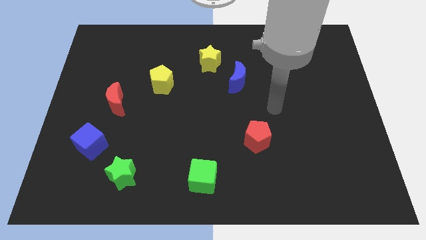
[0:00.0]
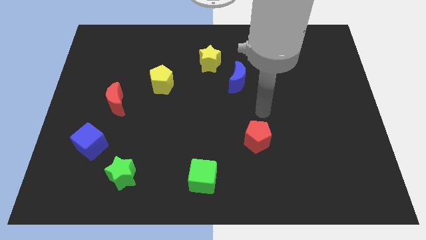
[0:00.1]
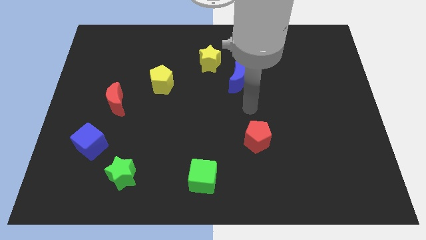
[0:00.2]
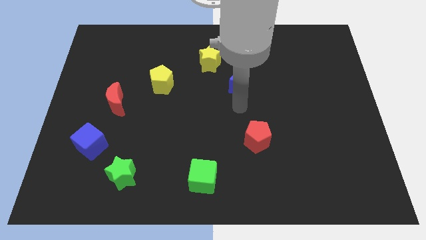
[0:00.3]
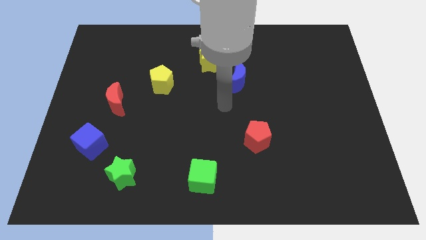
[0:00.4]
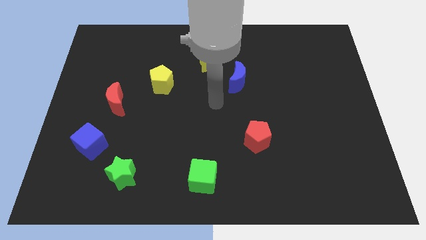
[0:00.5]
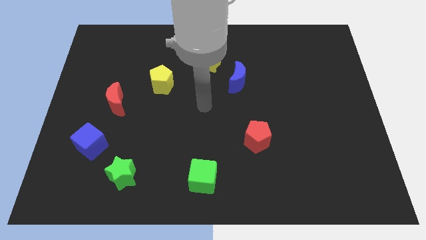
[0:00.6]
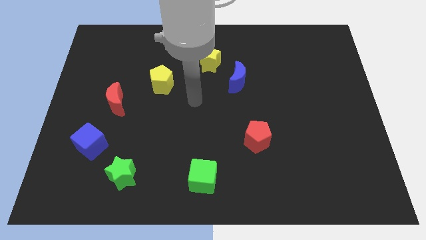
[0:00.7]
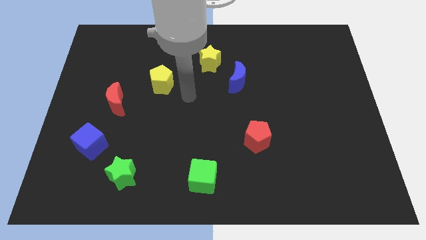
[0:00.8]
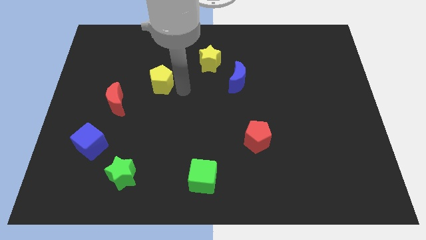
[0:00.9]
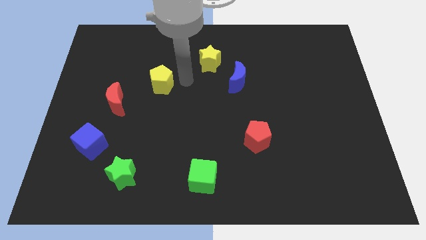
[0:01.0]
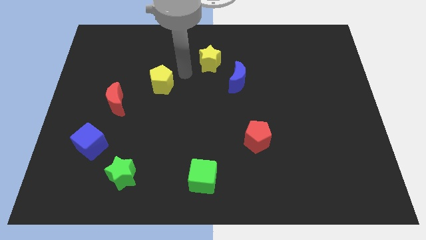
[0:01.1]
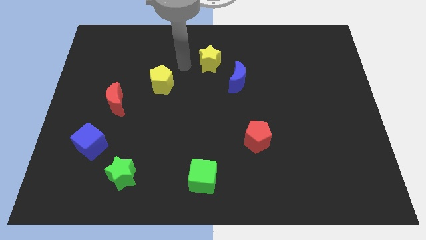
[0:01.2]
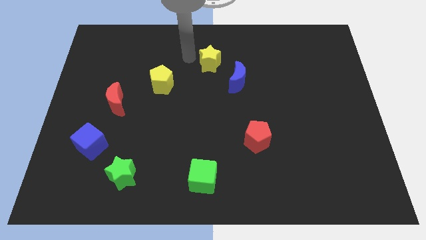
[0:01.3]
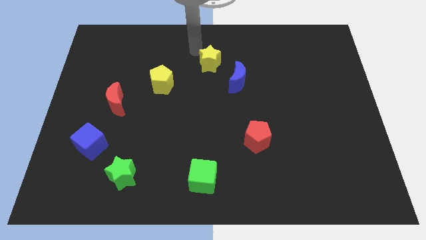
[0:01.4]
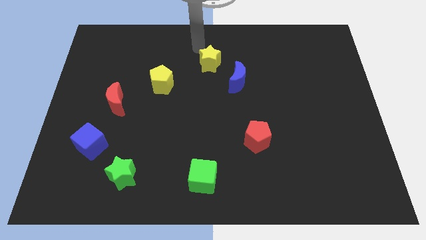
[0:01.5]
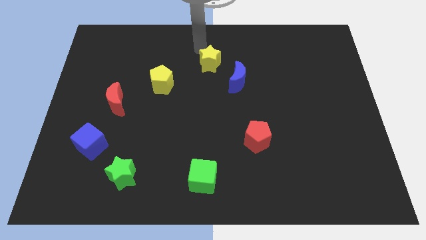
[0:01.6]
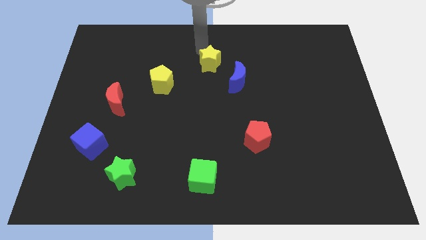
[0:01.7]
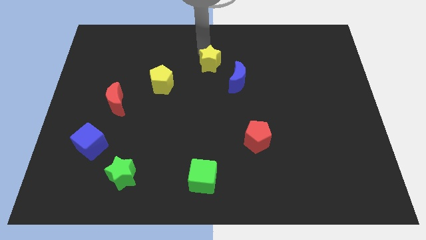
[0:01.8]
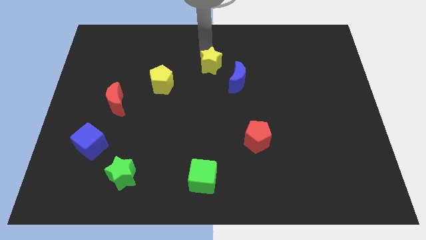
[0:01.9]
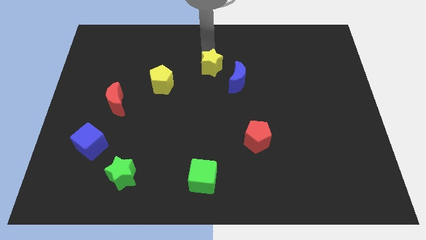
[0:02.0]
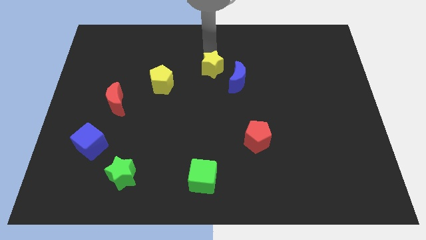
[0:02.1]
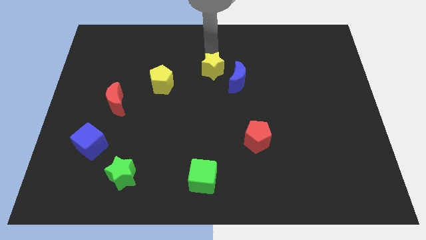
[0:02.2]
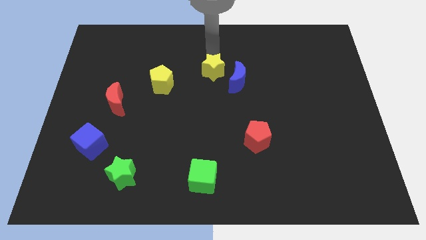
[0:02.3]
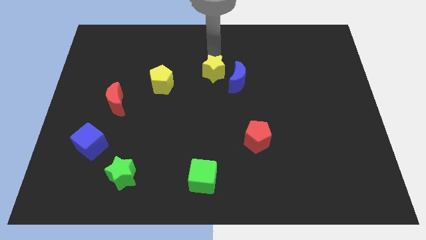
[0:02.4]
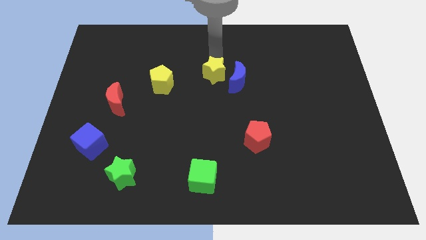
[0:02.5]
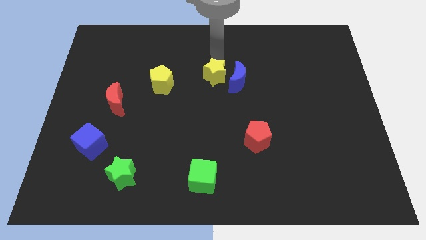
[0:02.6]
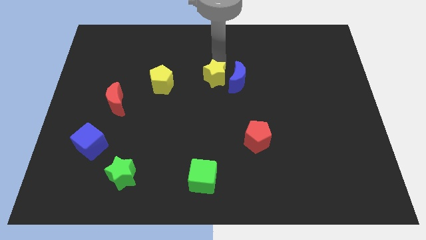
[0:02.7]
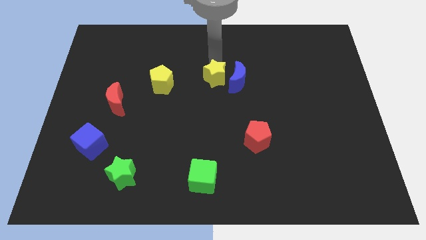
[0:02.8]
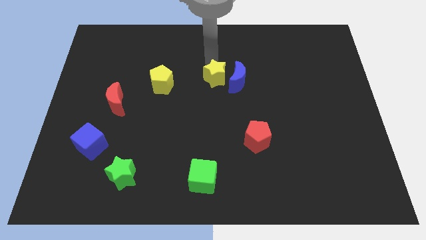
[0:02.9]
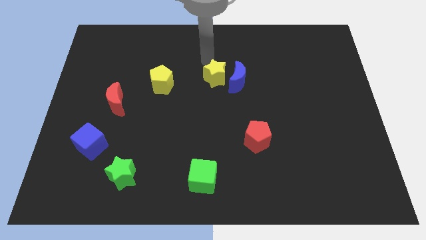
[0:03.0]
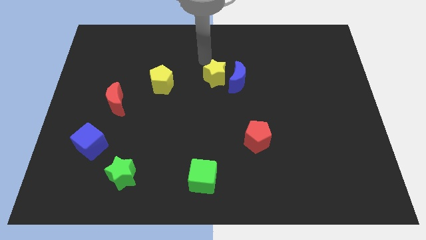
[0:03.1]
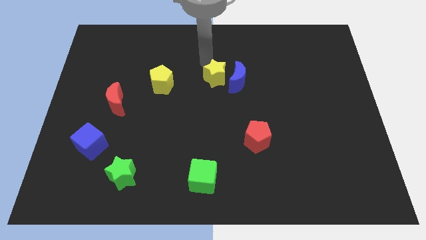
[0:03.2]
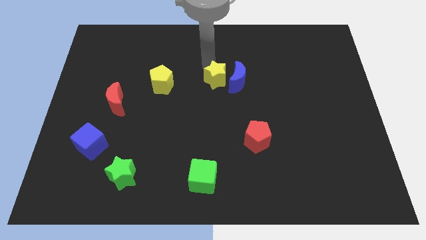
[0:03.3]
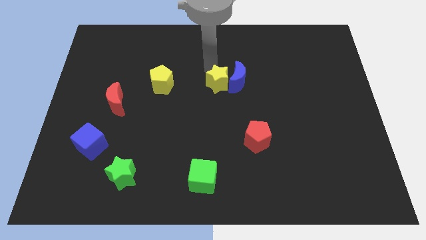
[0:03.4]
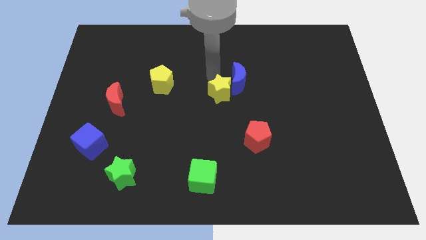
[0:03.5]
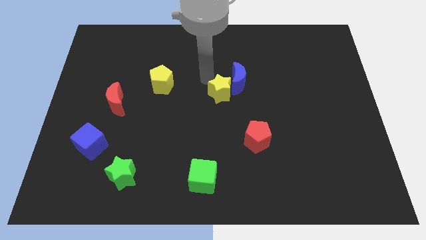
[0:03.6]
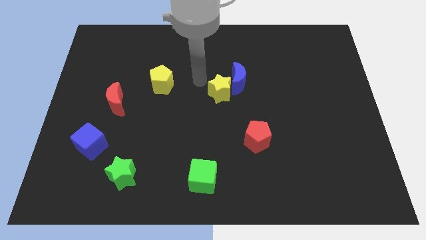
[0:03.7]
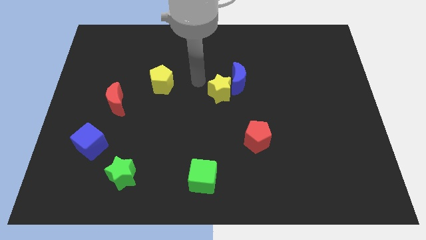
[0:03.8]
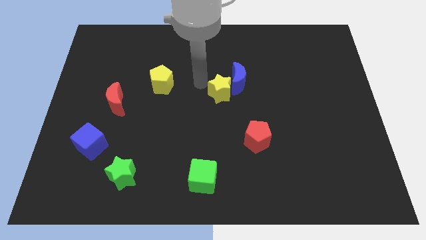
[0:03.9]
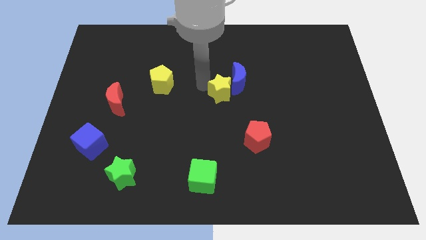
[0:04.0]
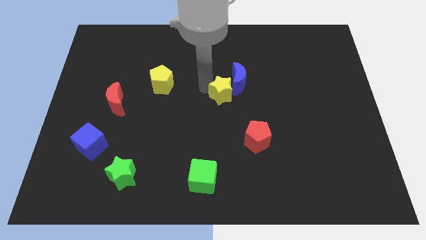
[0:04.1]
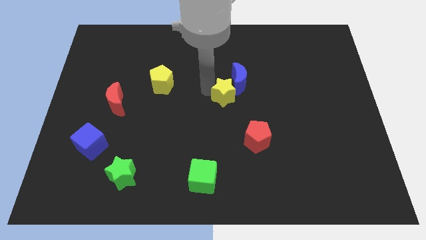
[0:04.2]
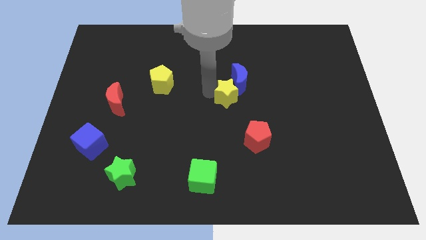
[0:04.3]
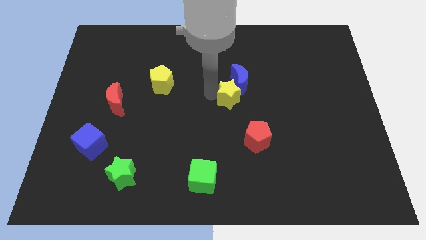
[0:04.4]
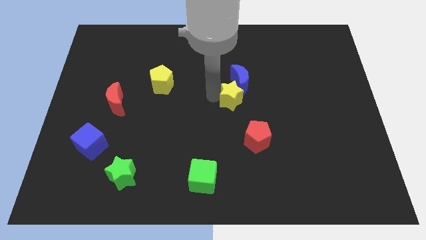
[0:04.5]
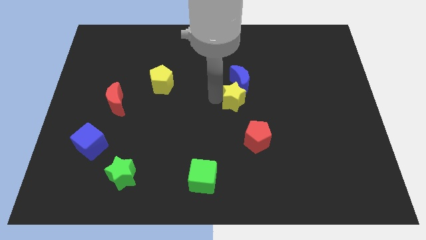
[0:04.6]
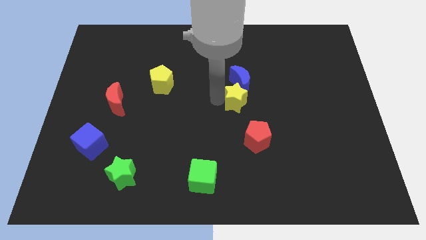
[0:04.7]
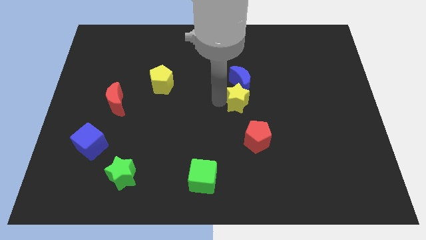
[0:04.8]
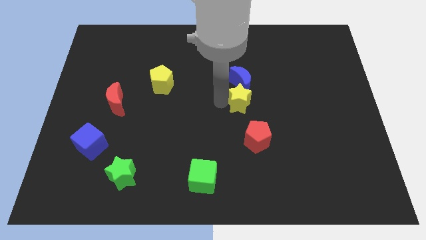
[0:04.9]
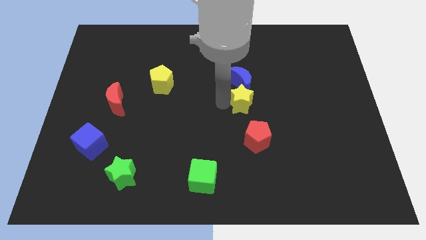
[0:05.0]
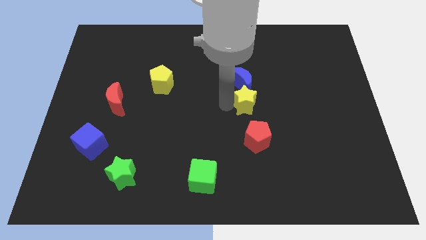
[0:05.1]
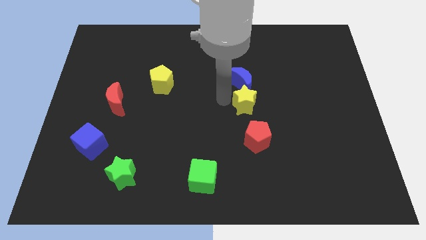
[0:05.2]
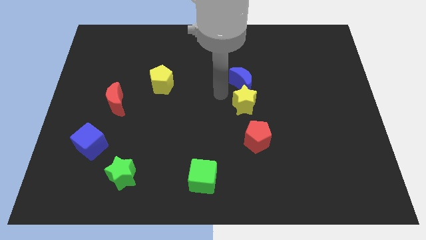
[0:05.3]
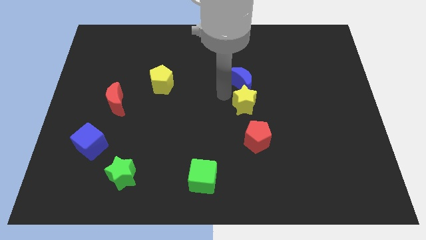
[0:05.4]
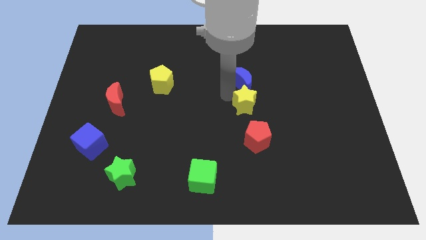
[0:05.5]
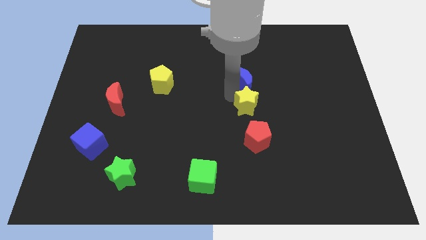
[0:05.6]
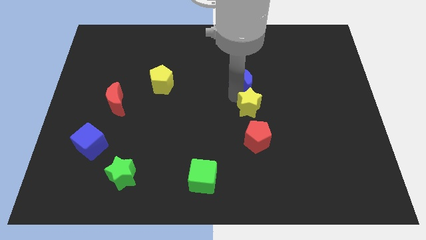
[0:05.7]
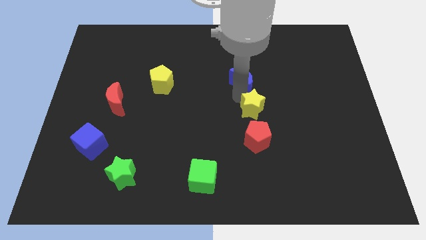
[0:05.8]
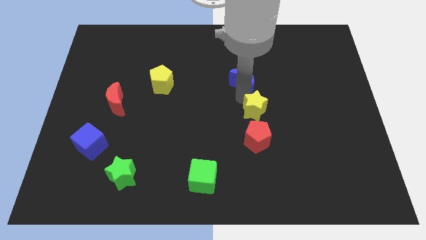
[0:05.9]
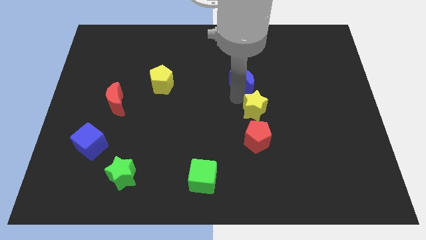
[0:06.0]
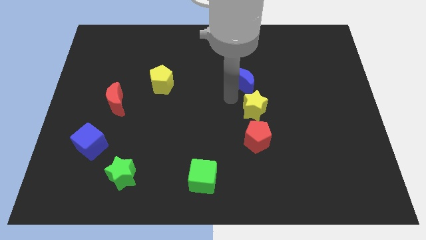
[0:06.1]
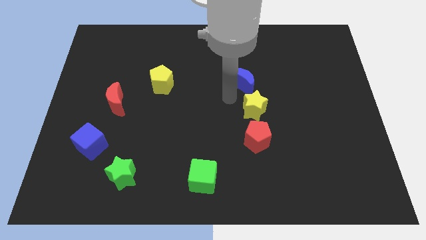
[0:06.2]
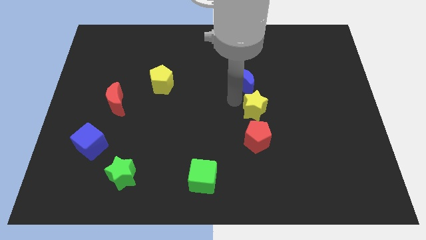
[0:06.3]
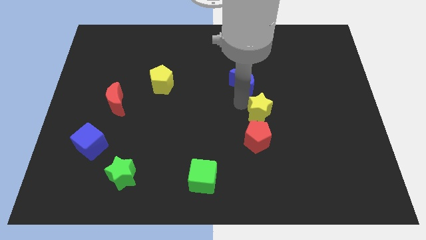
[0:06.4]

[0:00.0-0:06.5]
slide the yellow star diagonally up and to the right of the red pentagon
